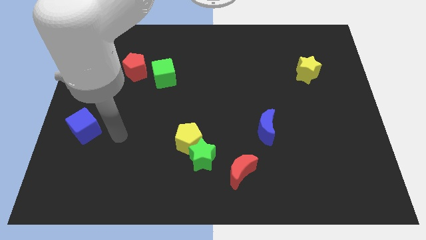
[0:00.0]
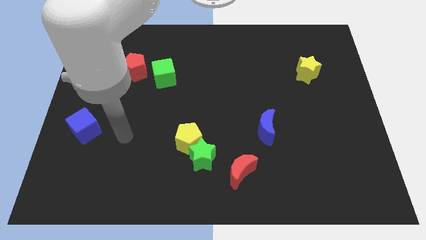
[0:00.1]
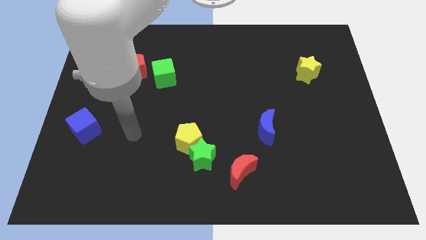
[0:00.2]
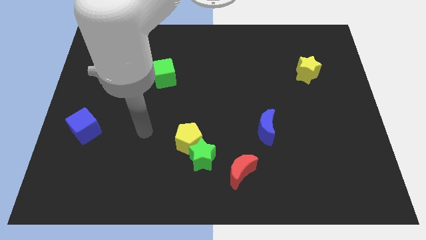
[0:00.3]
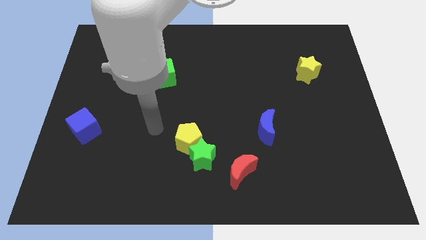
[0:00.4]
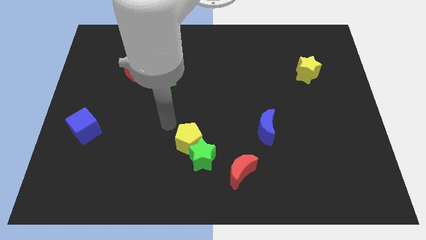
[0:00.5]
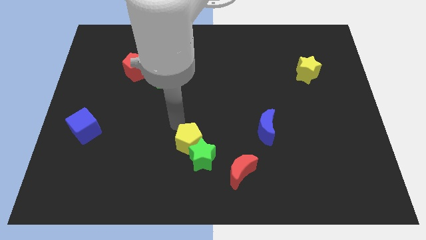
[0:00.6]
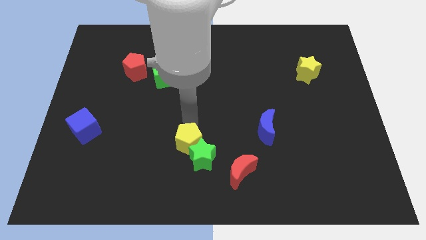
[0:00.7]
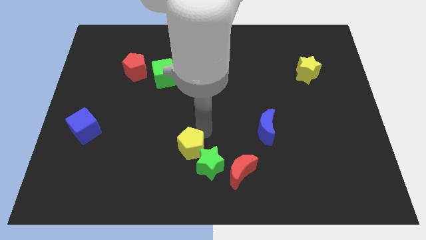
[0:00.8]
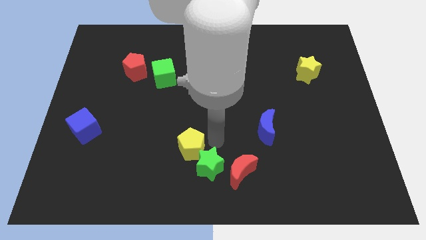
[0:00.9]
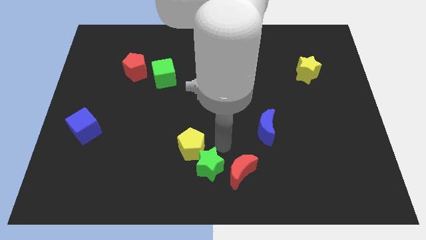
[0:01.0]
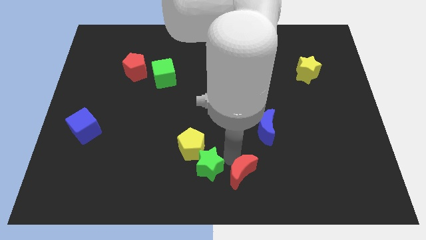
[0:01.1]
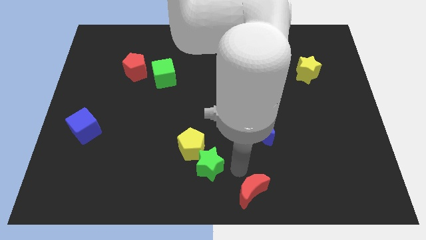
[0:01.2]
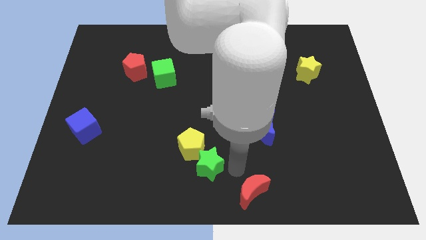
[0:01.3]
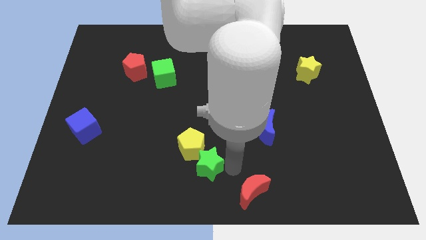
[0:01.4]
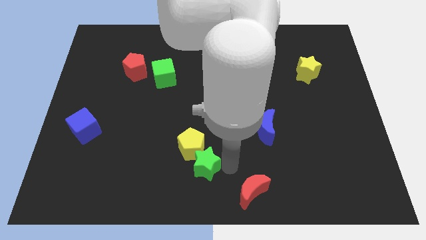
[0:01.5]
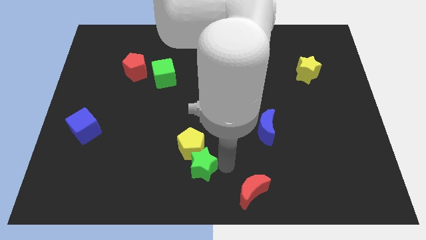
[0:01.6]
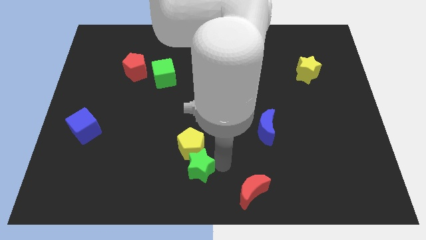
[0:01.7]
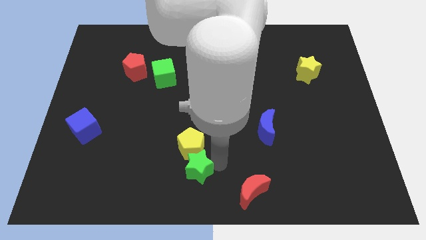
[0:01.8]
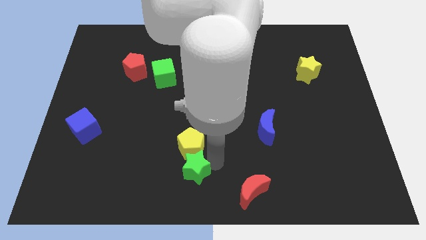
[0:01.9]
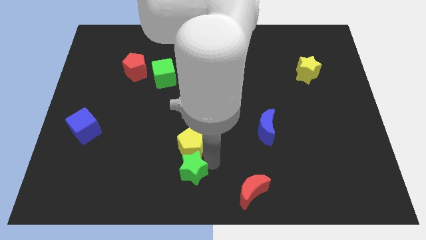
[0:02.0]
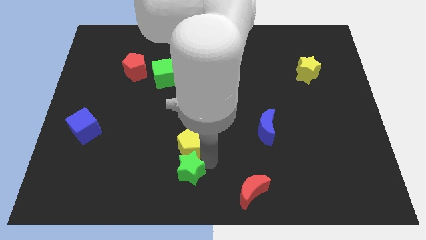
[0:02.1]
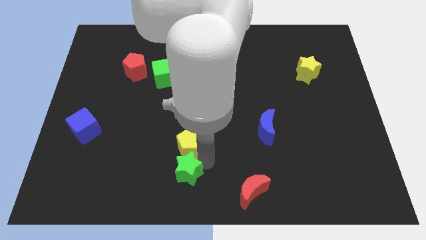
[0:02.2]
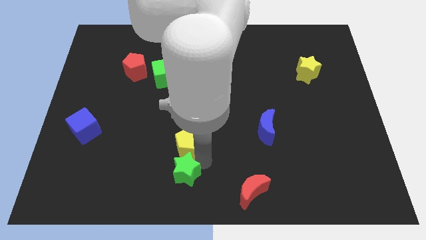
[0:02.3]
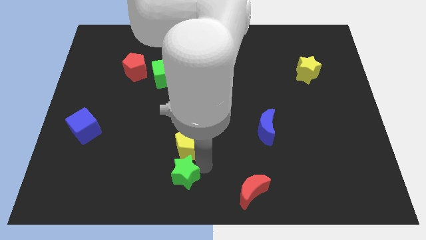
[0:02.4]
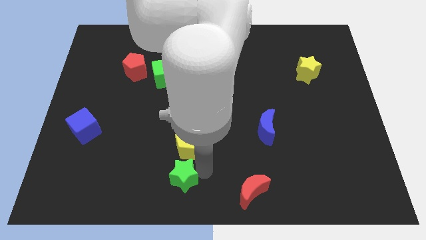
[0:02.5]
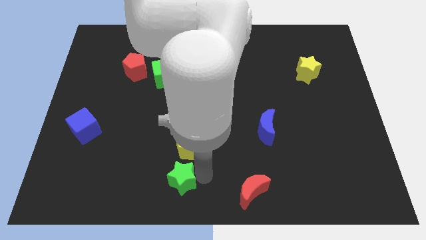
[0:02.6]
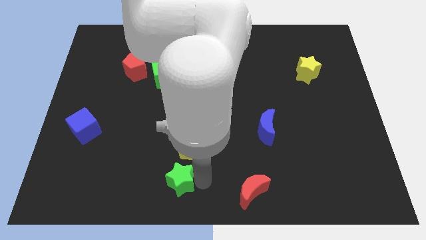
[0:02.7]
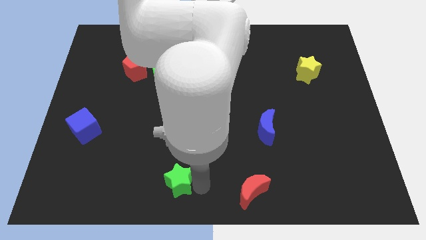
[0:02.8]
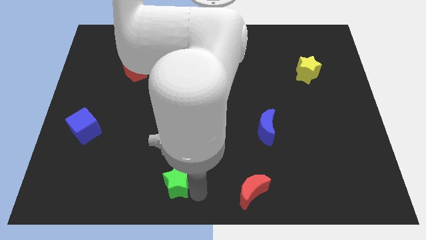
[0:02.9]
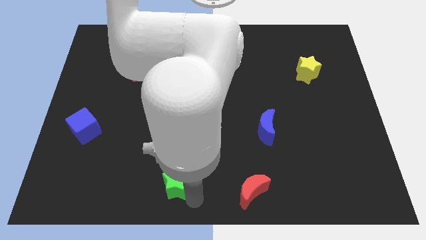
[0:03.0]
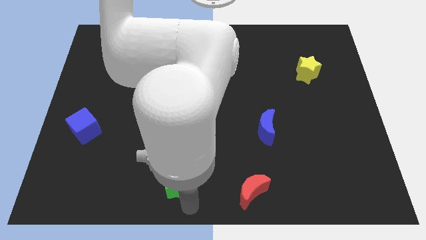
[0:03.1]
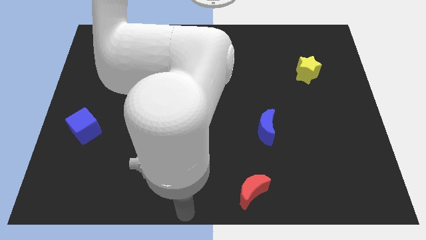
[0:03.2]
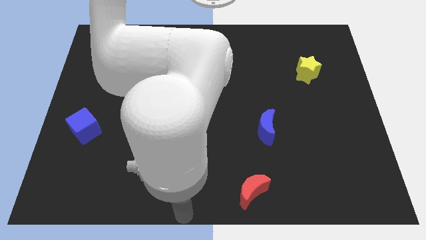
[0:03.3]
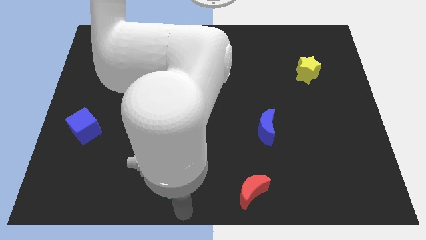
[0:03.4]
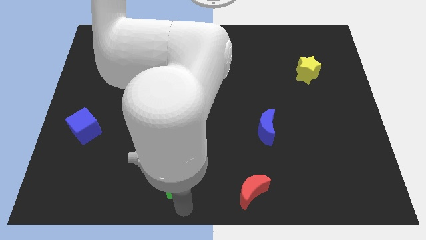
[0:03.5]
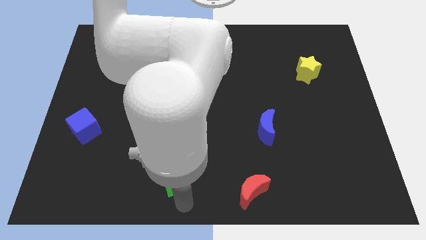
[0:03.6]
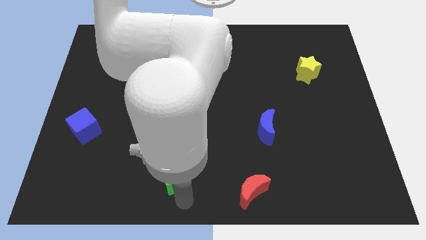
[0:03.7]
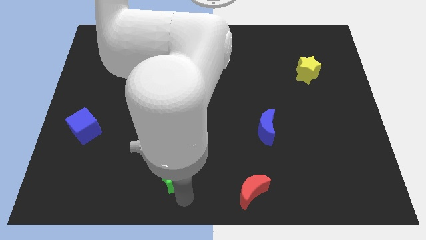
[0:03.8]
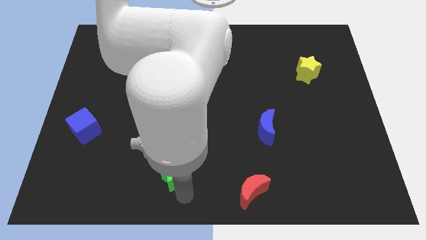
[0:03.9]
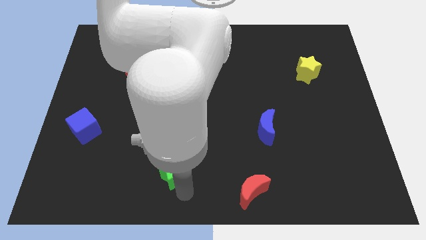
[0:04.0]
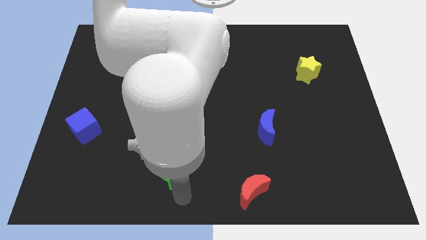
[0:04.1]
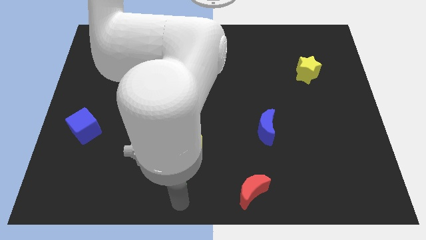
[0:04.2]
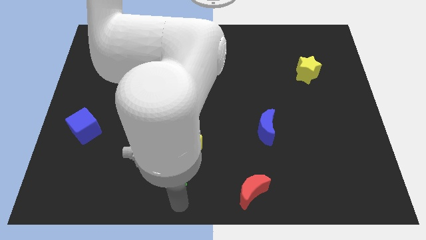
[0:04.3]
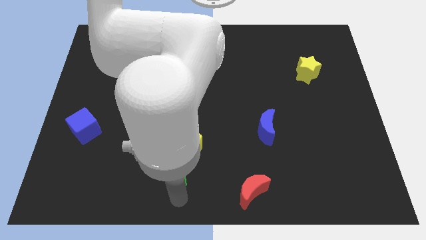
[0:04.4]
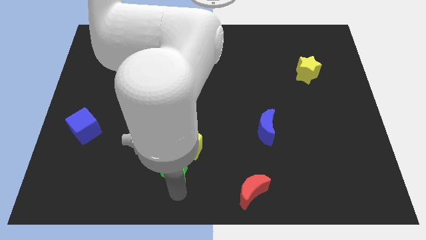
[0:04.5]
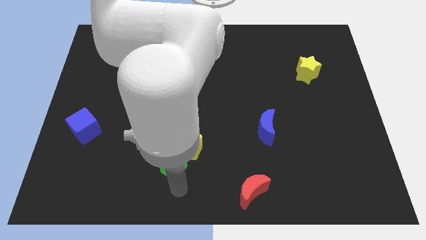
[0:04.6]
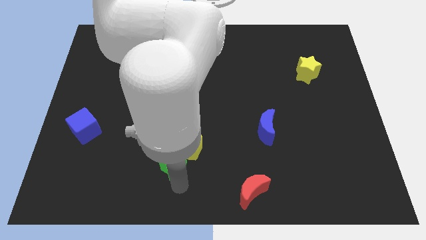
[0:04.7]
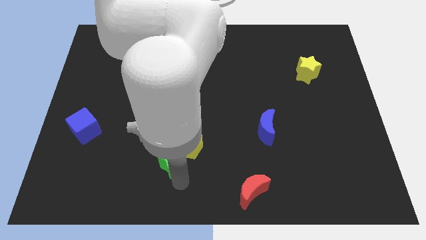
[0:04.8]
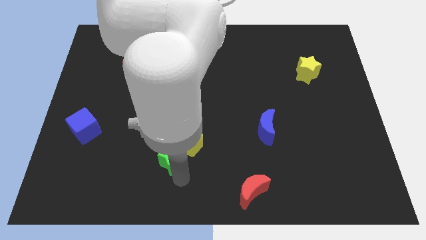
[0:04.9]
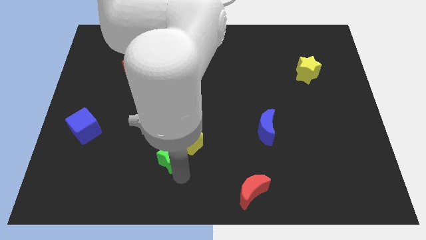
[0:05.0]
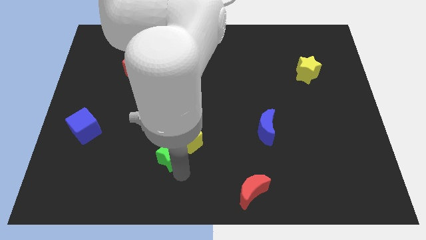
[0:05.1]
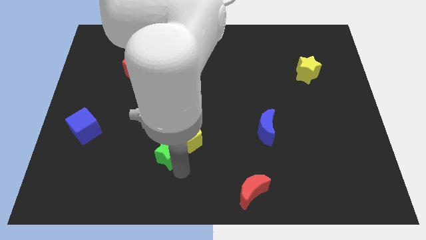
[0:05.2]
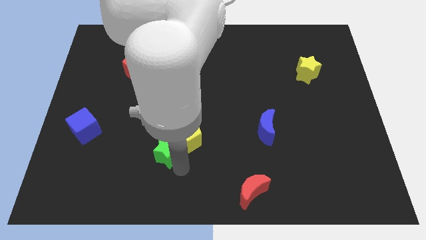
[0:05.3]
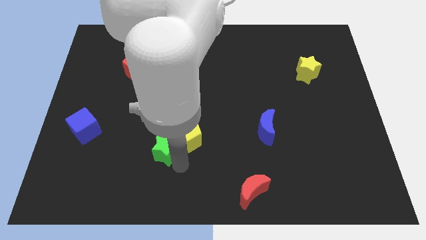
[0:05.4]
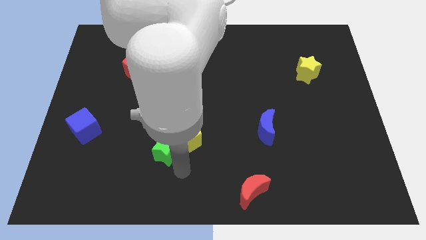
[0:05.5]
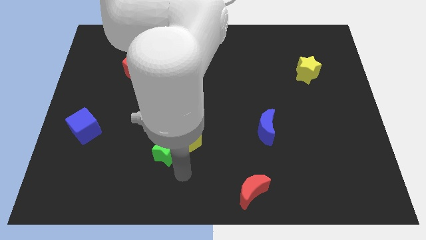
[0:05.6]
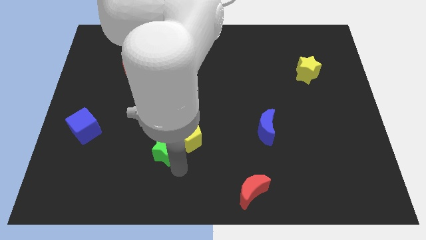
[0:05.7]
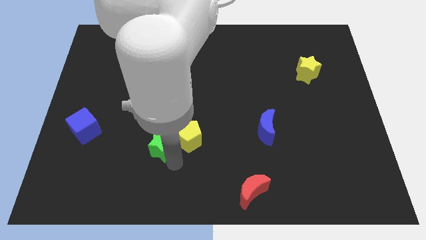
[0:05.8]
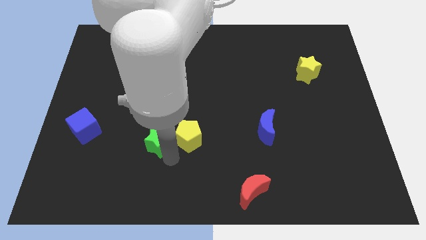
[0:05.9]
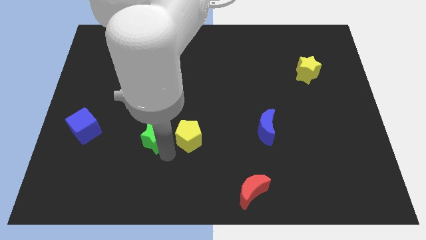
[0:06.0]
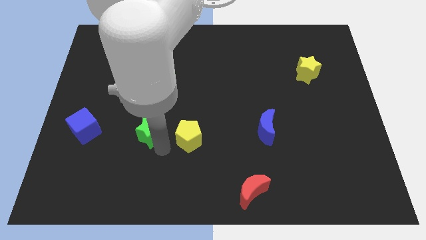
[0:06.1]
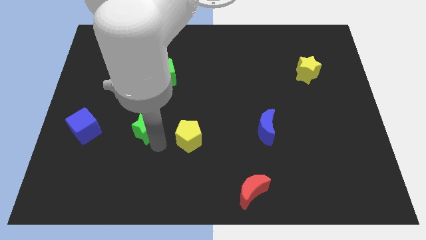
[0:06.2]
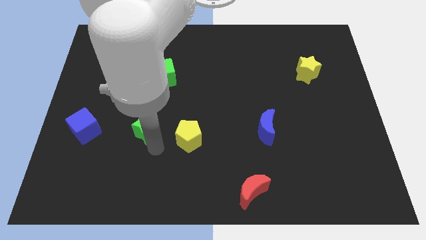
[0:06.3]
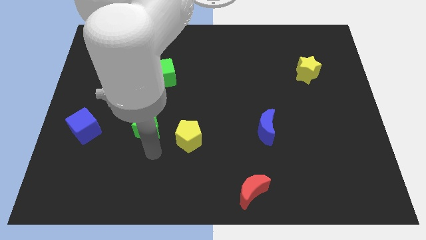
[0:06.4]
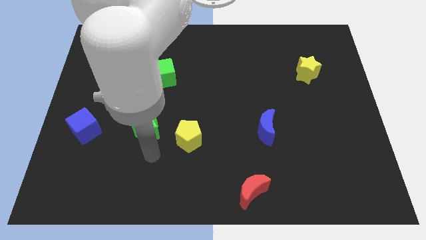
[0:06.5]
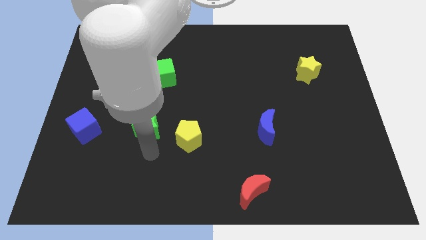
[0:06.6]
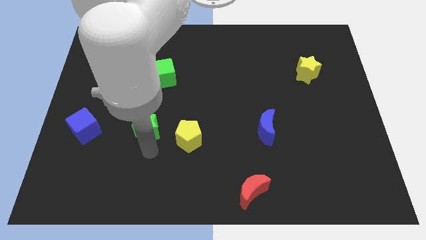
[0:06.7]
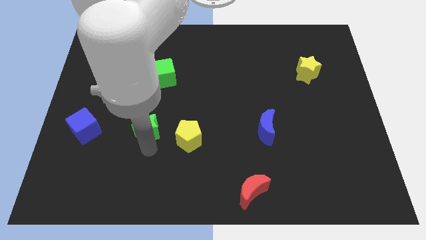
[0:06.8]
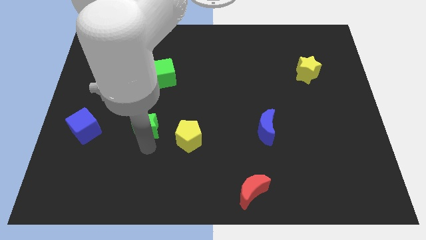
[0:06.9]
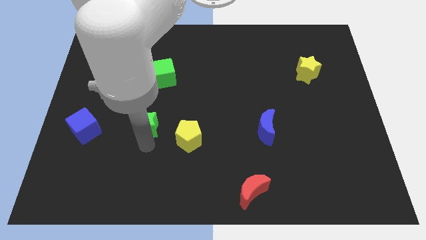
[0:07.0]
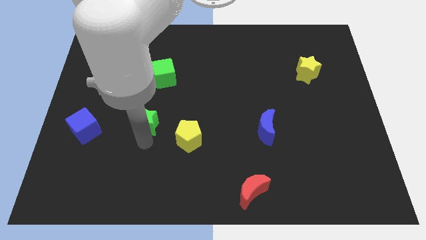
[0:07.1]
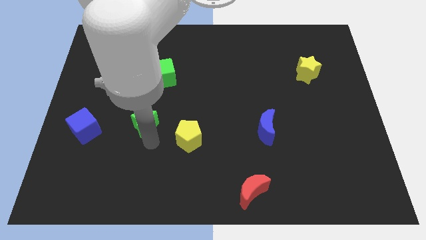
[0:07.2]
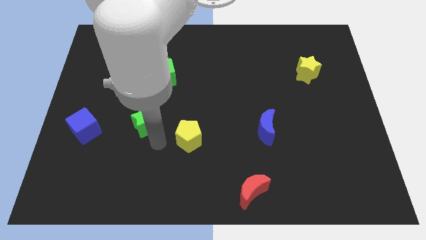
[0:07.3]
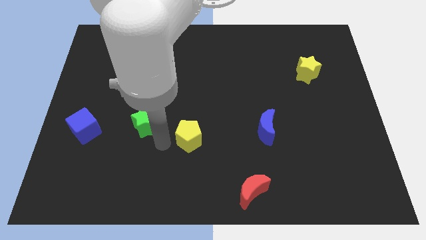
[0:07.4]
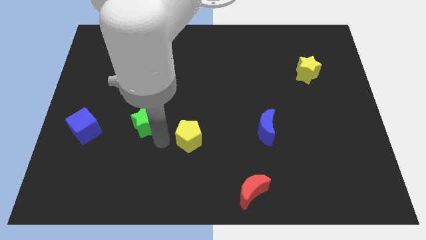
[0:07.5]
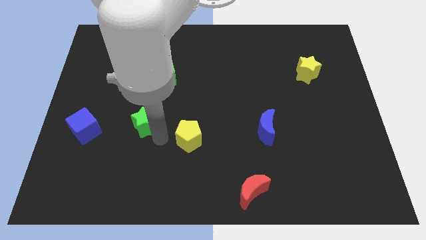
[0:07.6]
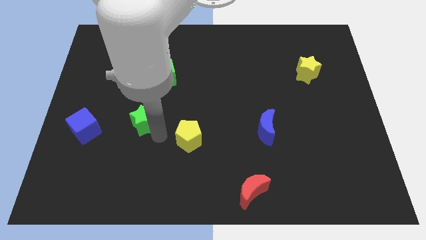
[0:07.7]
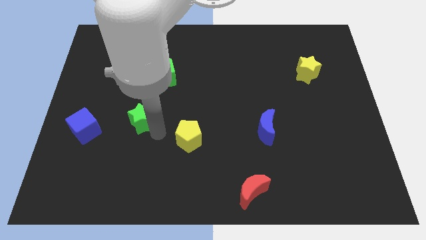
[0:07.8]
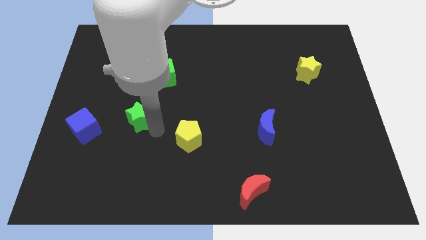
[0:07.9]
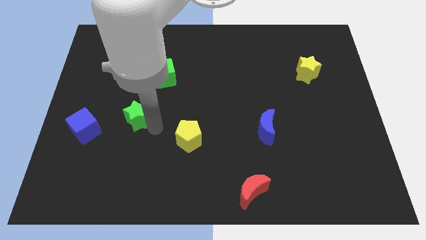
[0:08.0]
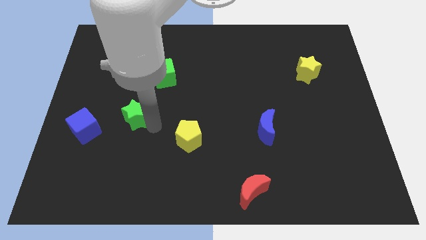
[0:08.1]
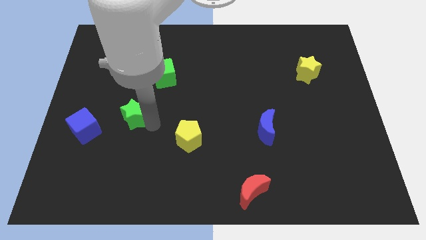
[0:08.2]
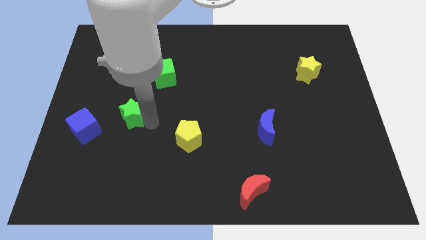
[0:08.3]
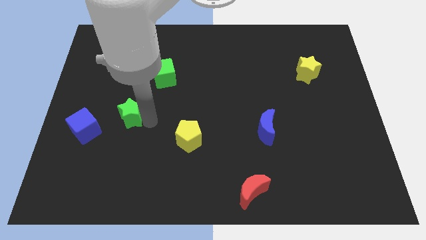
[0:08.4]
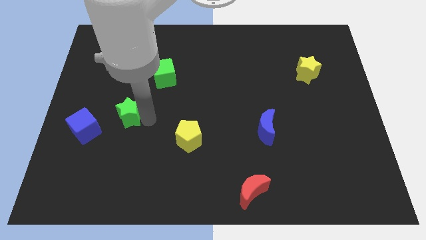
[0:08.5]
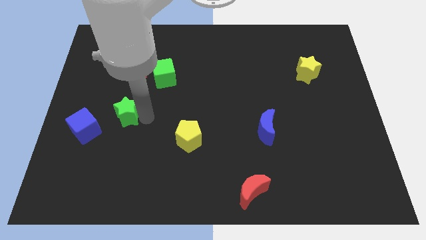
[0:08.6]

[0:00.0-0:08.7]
push the green star diagonally up and to the left
